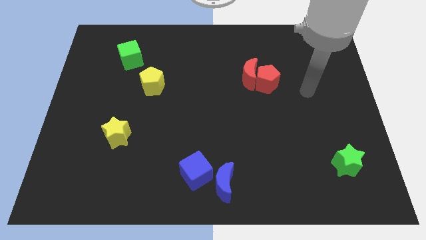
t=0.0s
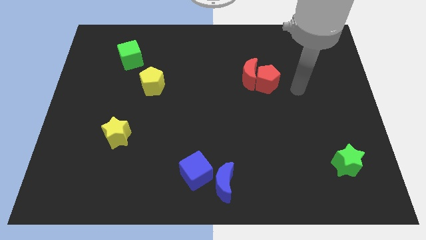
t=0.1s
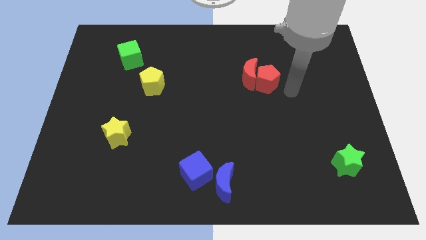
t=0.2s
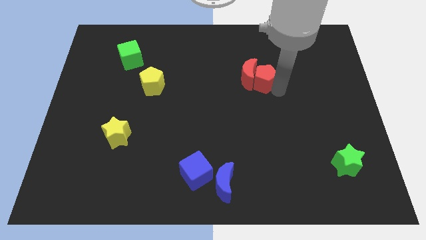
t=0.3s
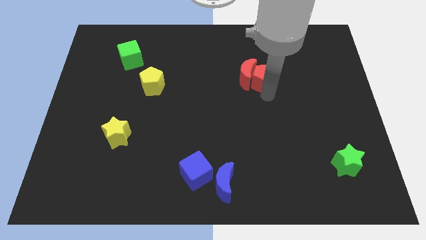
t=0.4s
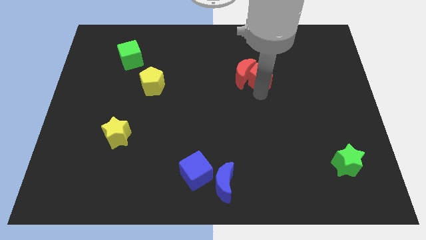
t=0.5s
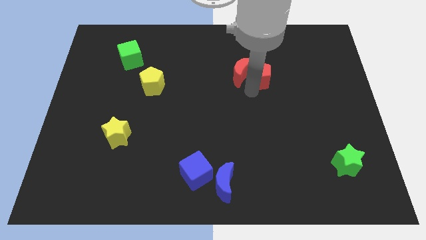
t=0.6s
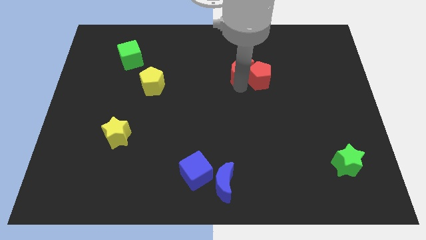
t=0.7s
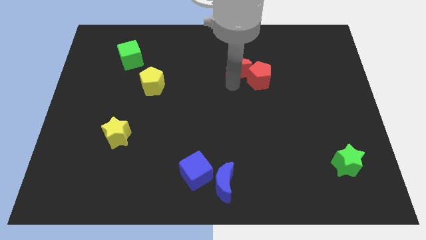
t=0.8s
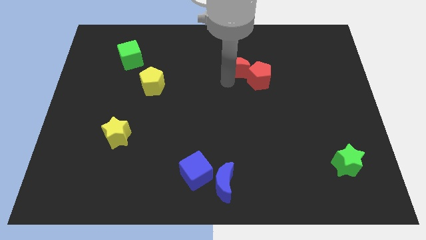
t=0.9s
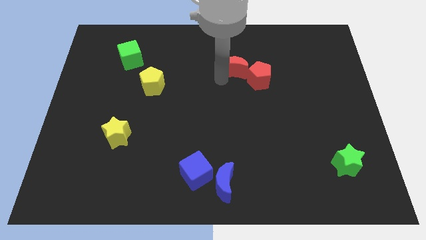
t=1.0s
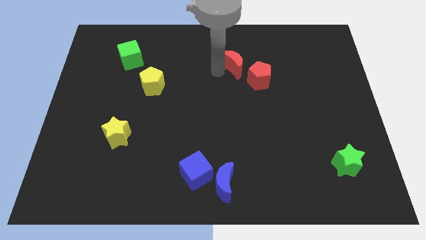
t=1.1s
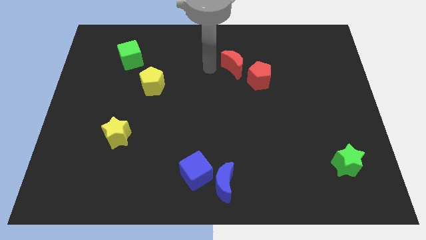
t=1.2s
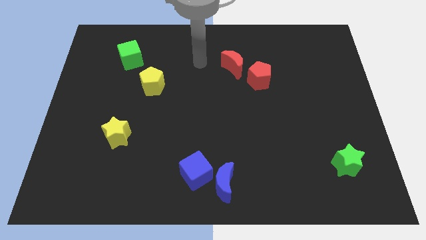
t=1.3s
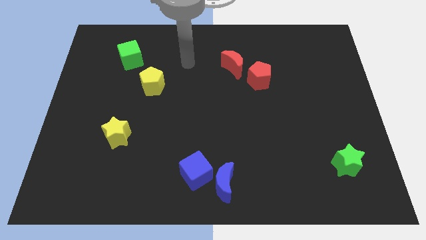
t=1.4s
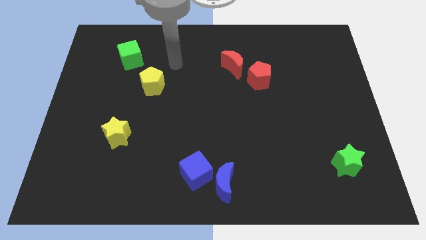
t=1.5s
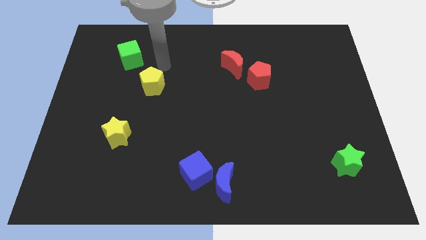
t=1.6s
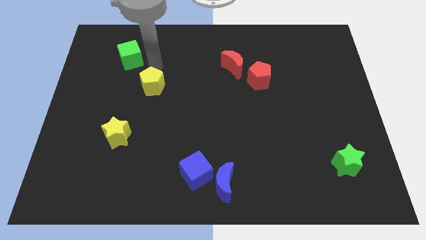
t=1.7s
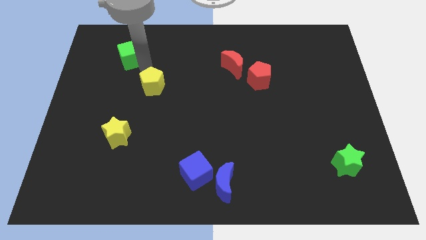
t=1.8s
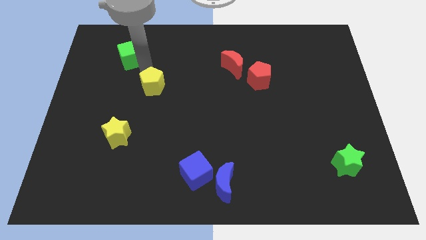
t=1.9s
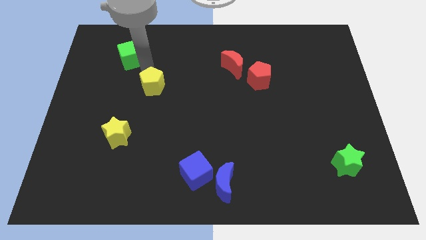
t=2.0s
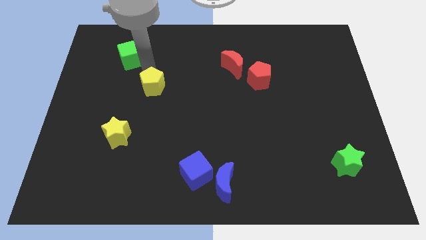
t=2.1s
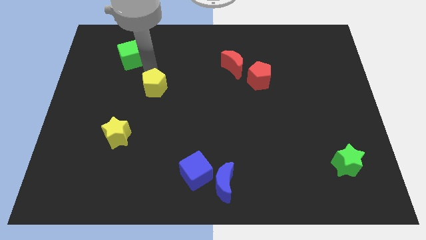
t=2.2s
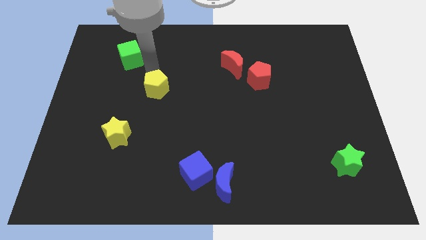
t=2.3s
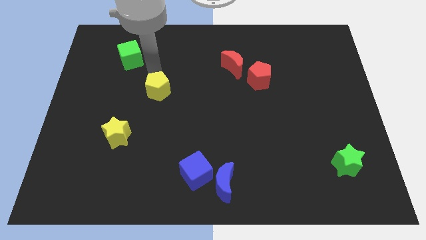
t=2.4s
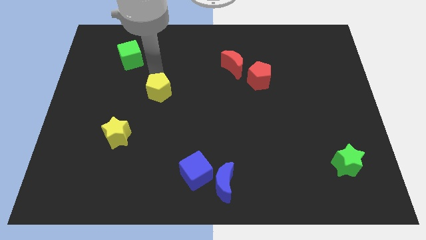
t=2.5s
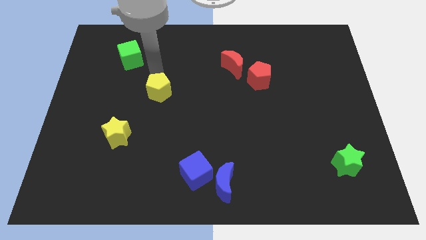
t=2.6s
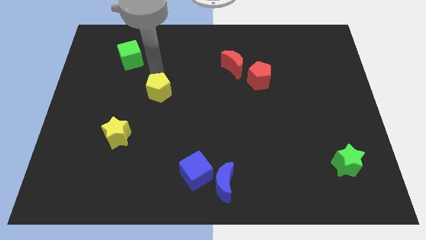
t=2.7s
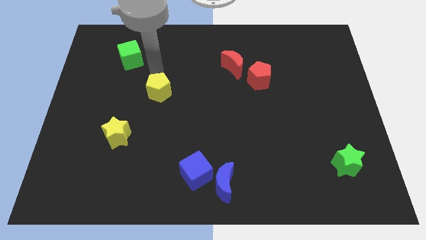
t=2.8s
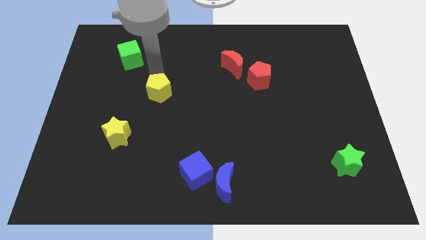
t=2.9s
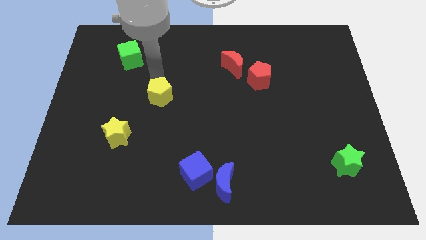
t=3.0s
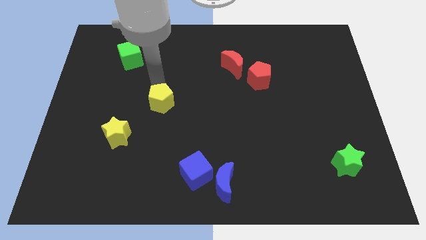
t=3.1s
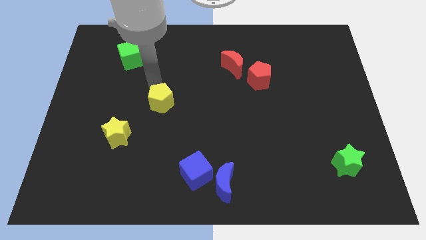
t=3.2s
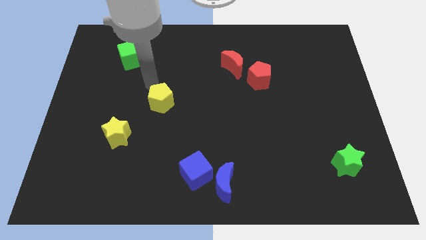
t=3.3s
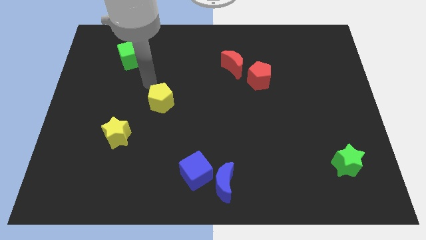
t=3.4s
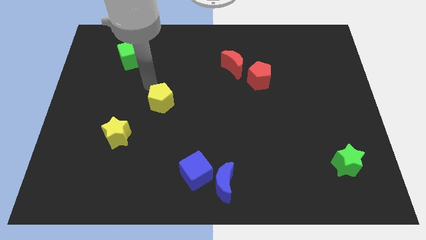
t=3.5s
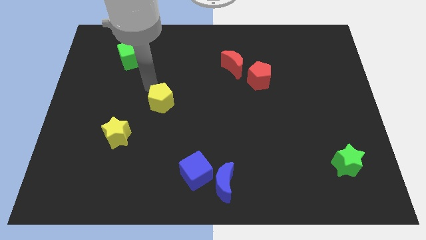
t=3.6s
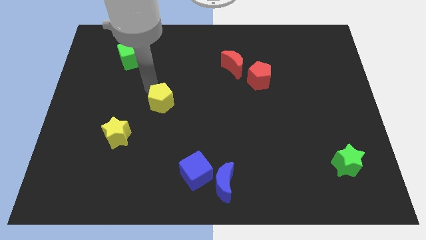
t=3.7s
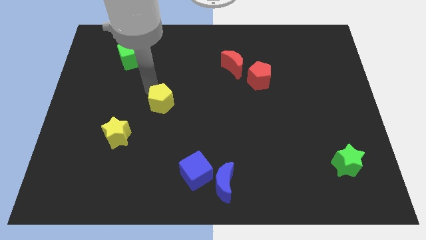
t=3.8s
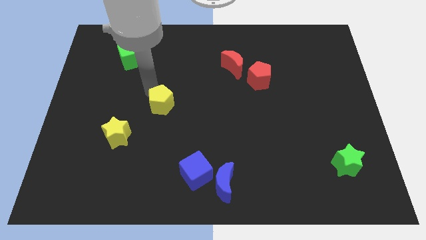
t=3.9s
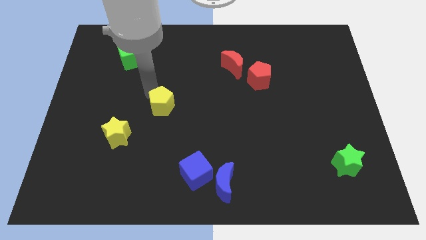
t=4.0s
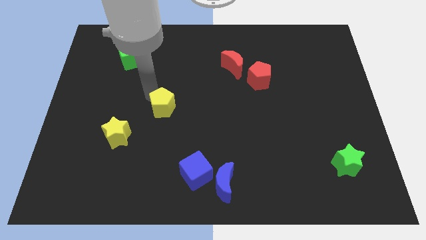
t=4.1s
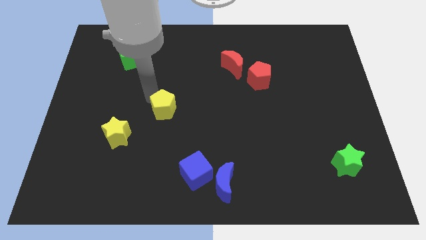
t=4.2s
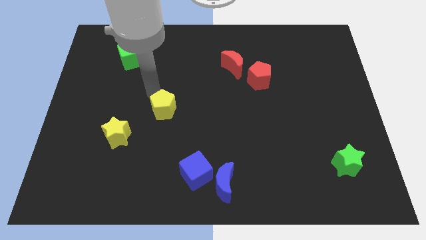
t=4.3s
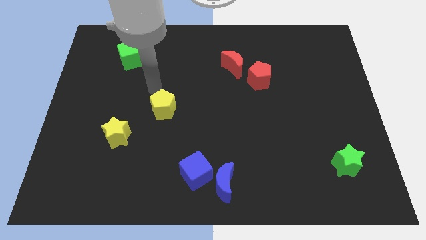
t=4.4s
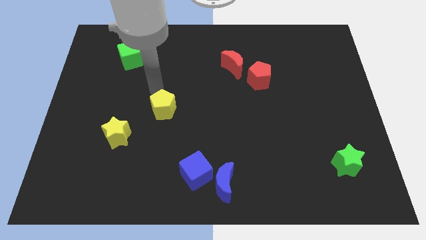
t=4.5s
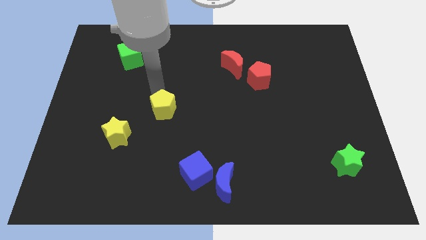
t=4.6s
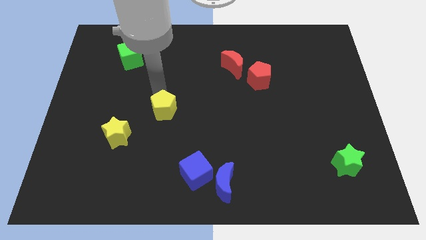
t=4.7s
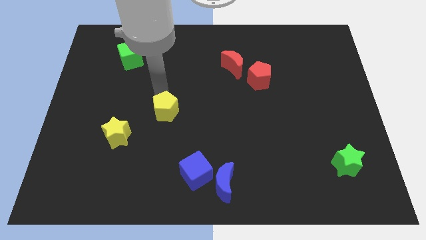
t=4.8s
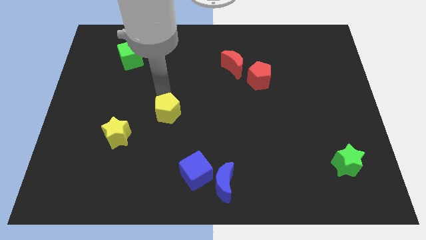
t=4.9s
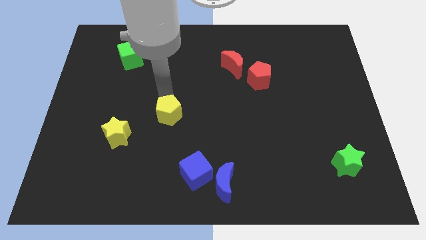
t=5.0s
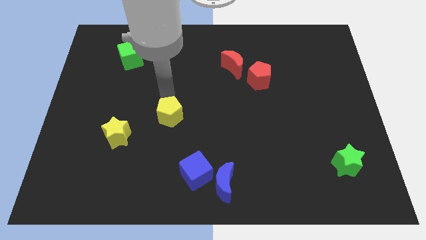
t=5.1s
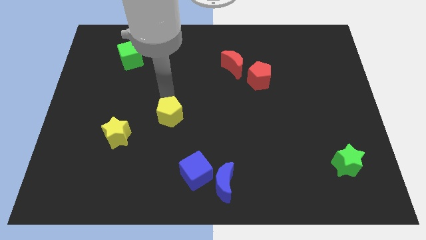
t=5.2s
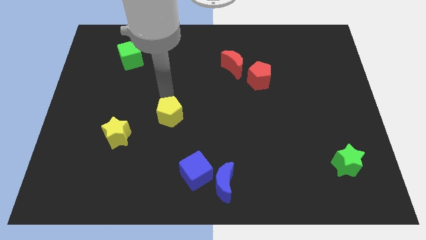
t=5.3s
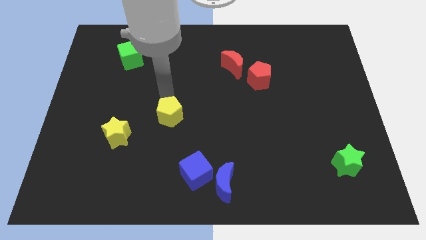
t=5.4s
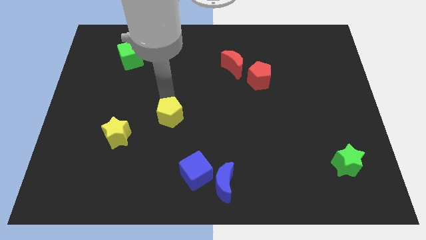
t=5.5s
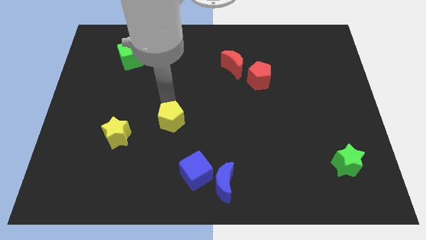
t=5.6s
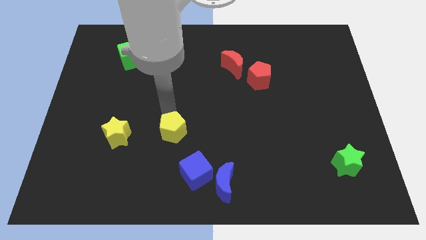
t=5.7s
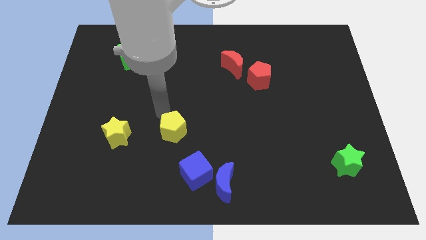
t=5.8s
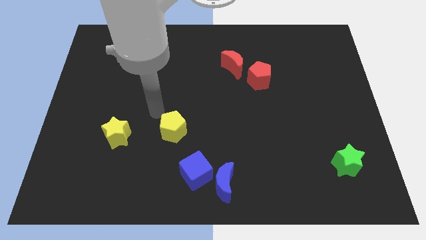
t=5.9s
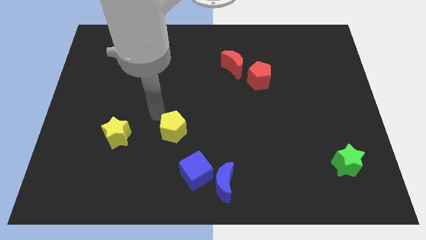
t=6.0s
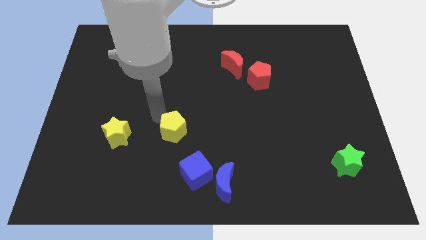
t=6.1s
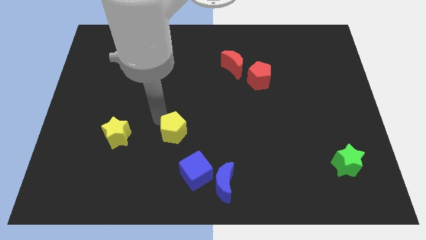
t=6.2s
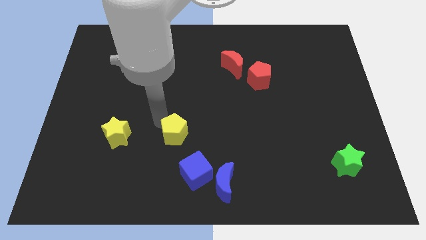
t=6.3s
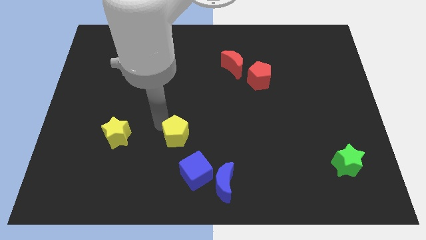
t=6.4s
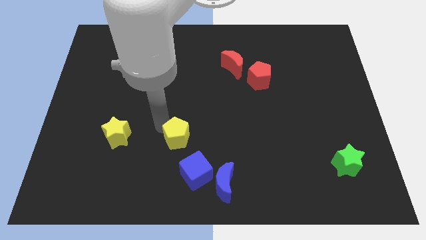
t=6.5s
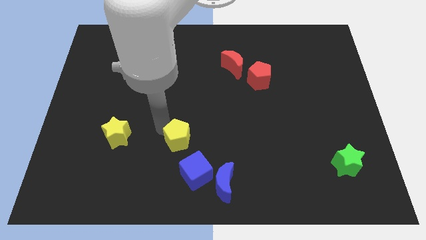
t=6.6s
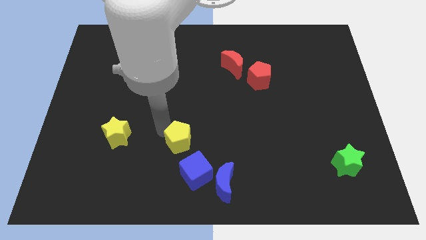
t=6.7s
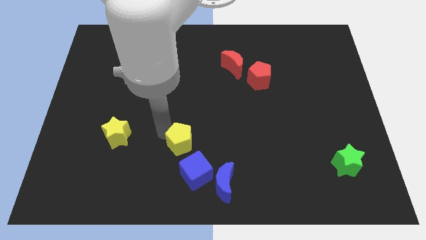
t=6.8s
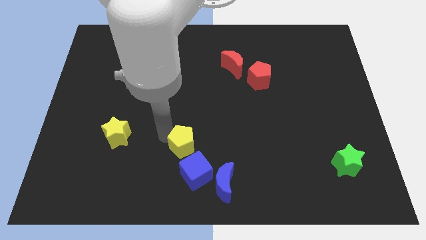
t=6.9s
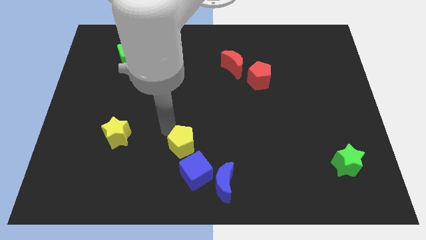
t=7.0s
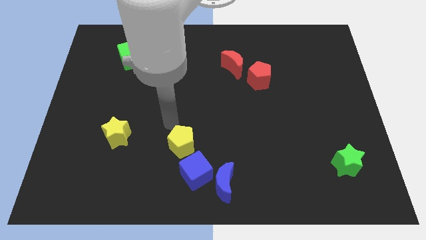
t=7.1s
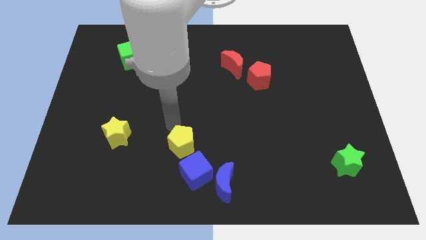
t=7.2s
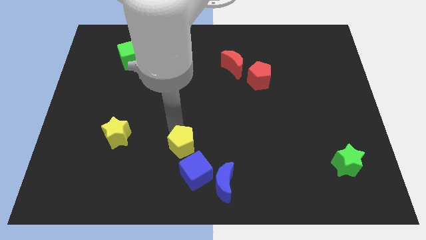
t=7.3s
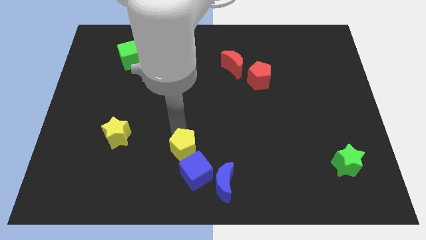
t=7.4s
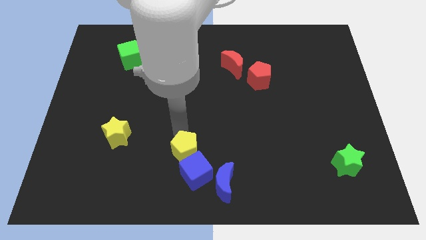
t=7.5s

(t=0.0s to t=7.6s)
move the yellow pentagon next to the blue cube
